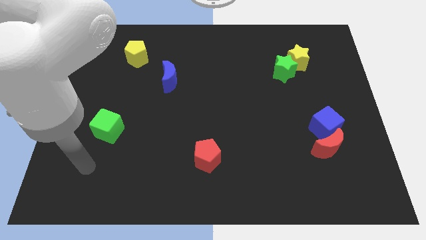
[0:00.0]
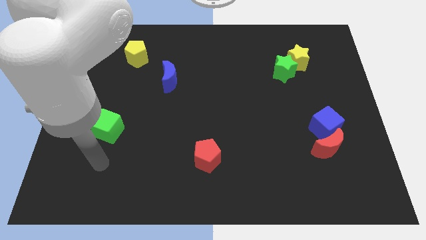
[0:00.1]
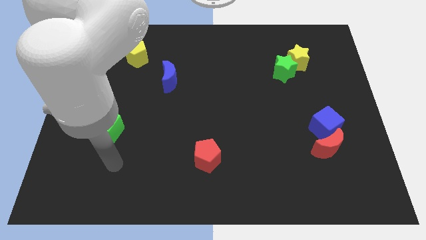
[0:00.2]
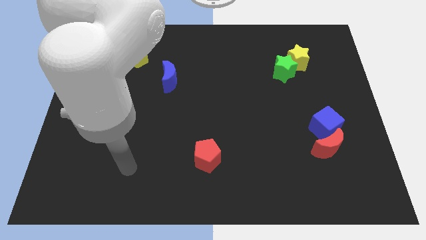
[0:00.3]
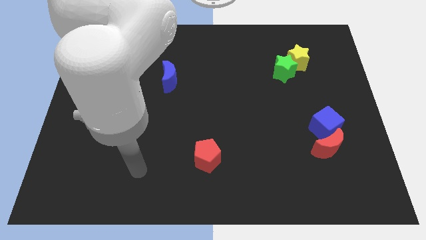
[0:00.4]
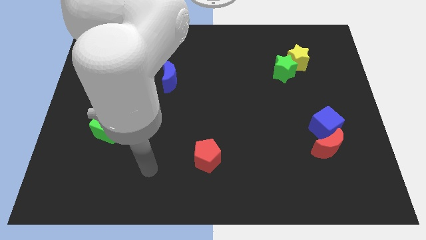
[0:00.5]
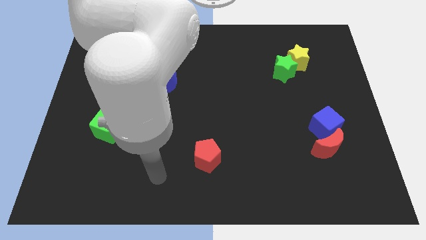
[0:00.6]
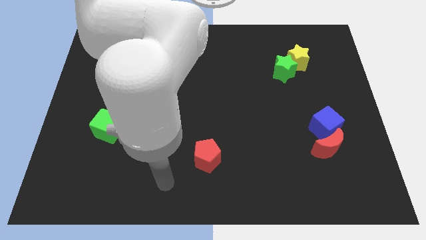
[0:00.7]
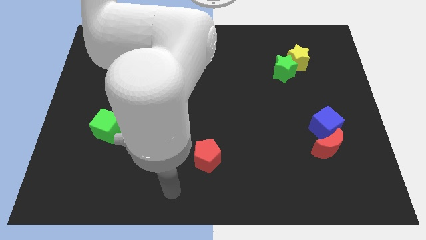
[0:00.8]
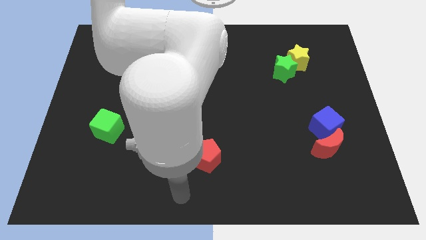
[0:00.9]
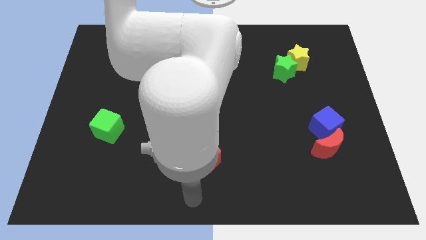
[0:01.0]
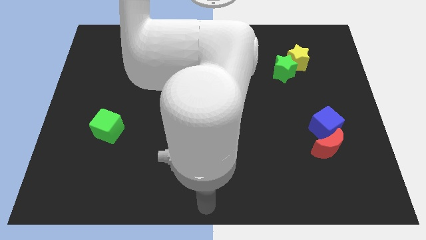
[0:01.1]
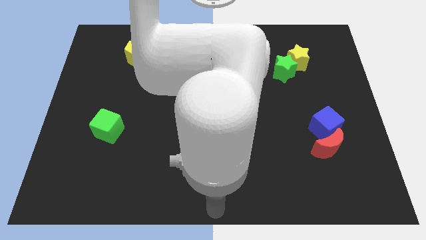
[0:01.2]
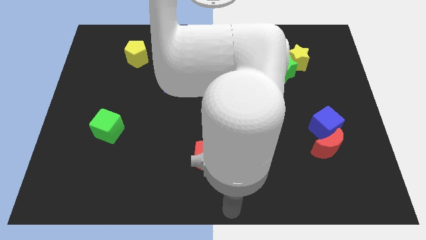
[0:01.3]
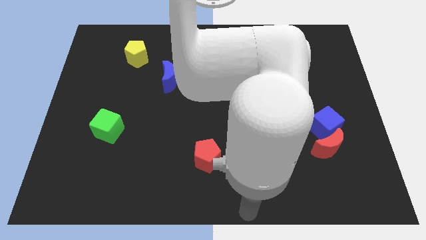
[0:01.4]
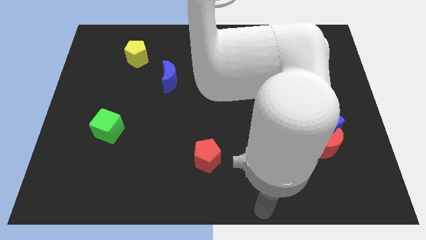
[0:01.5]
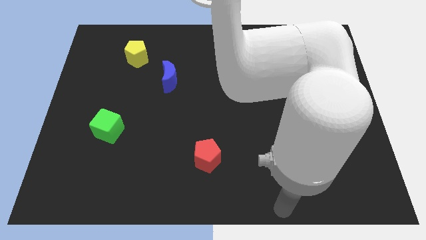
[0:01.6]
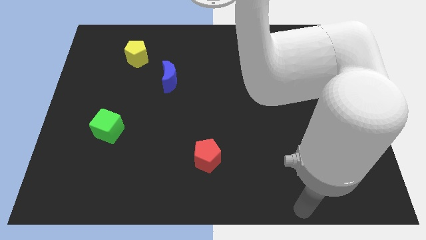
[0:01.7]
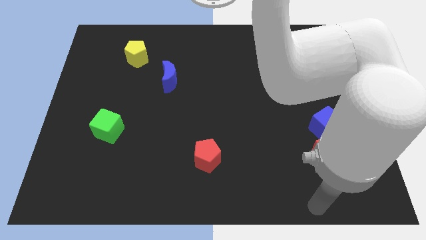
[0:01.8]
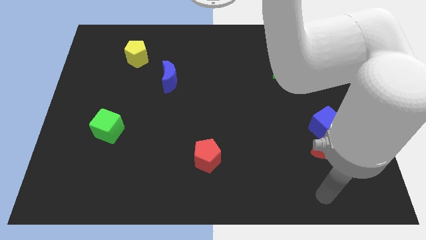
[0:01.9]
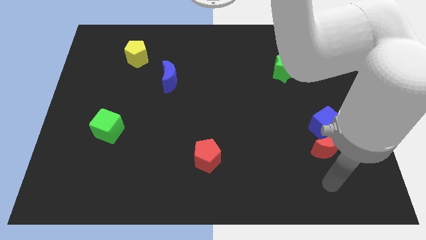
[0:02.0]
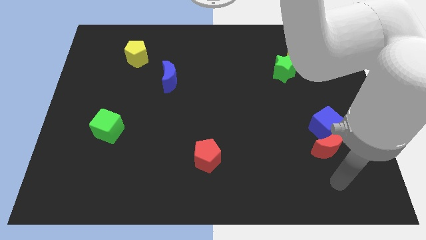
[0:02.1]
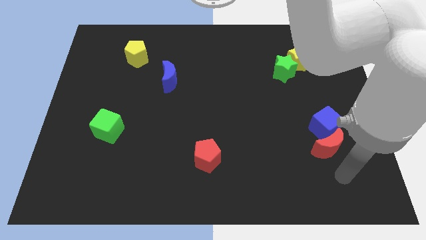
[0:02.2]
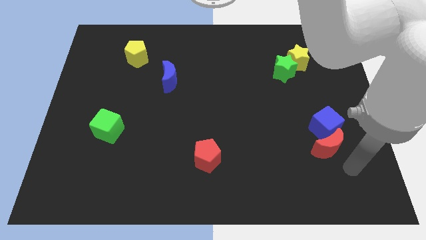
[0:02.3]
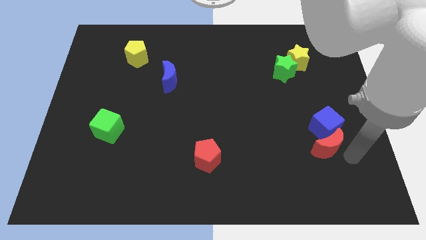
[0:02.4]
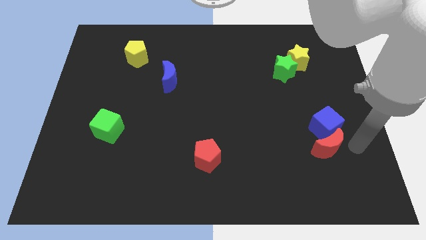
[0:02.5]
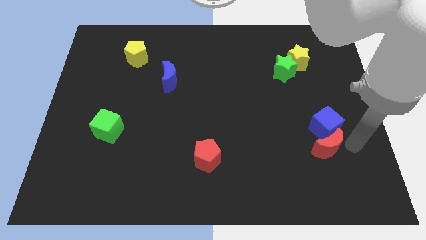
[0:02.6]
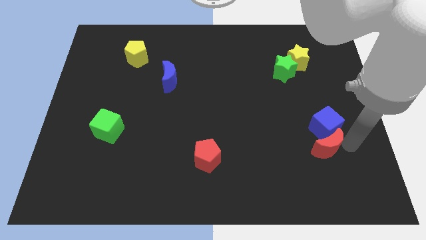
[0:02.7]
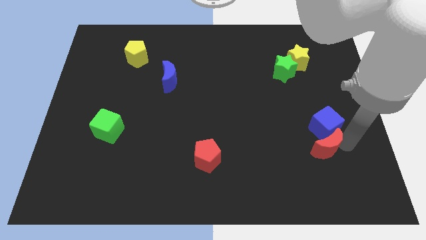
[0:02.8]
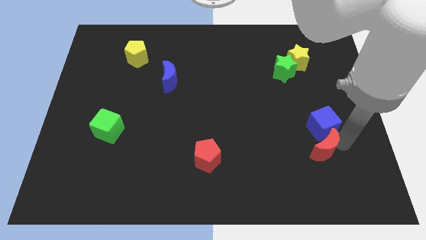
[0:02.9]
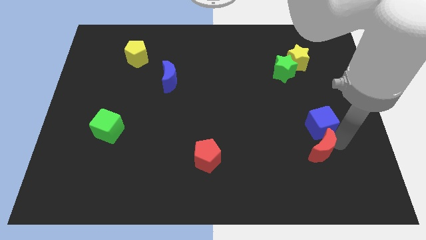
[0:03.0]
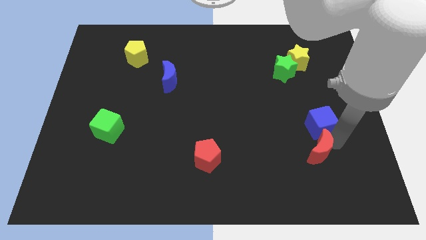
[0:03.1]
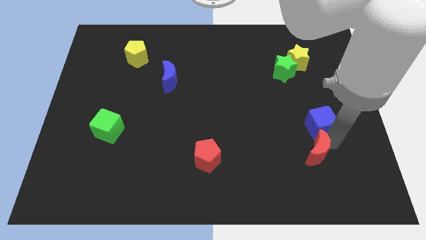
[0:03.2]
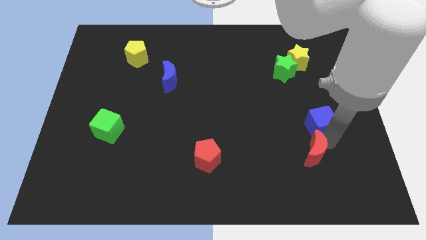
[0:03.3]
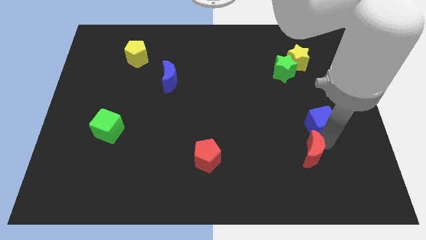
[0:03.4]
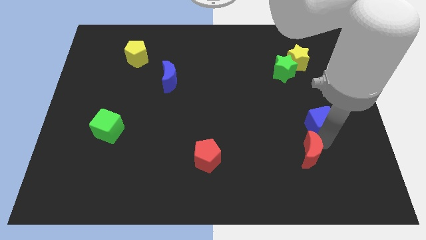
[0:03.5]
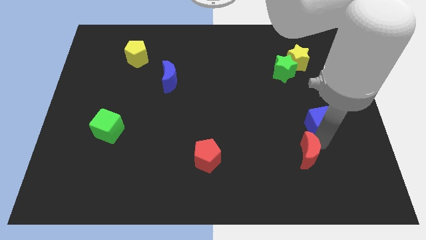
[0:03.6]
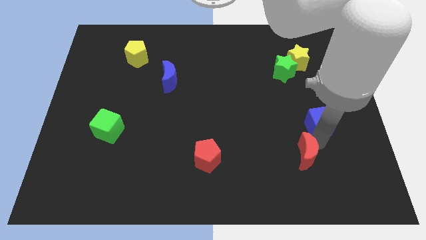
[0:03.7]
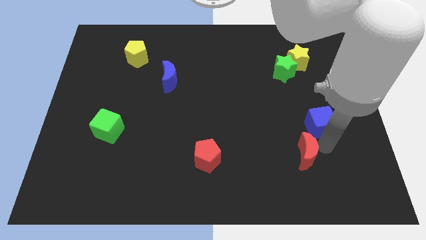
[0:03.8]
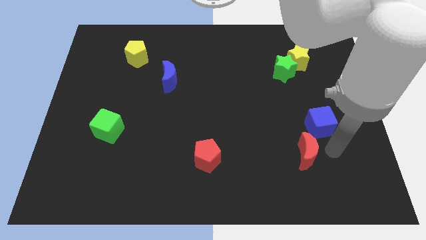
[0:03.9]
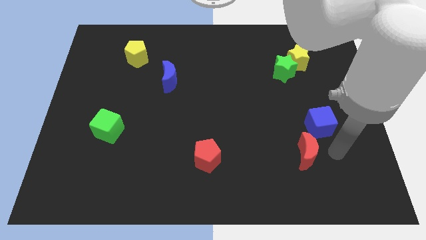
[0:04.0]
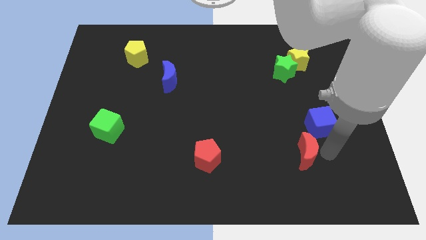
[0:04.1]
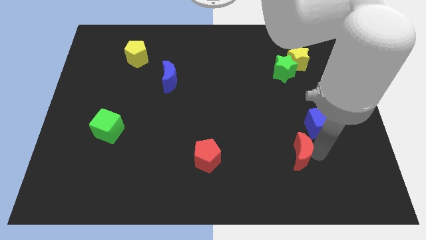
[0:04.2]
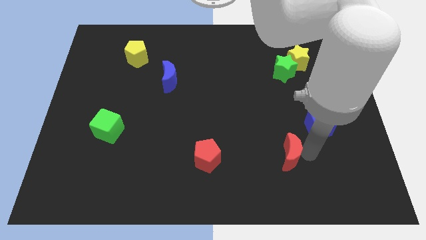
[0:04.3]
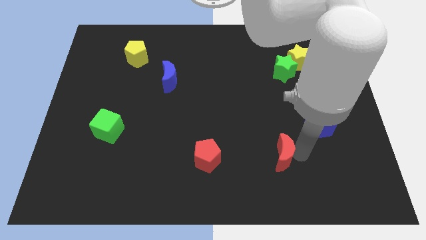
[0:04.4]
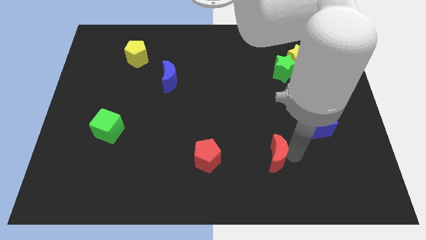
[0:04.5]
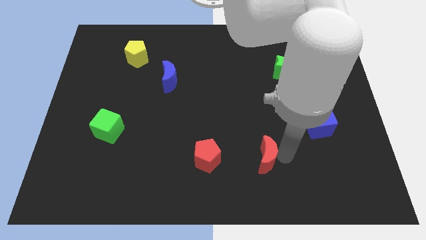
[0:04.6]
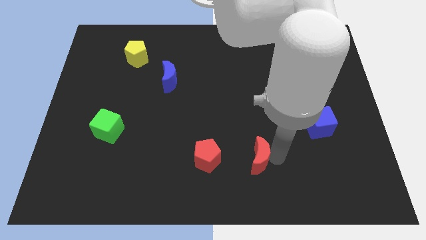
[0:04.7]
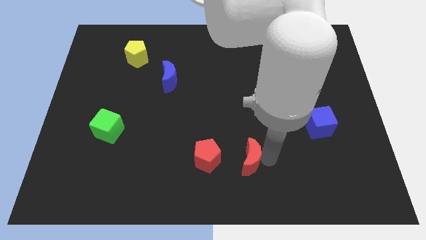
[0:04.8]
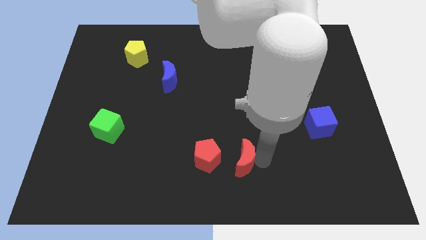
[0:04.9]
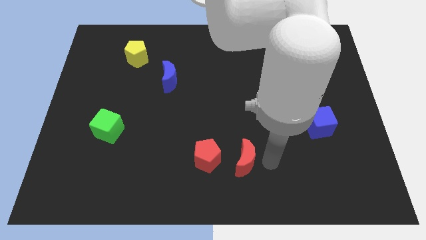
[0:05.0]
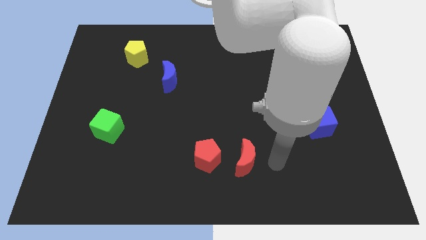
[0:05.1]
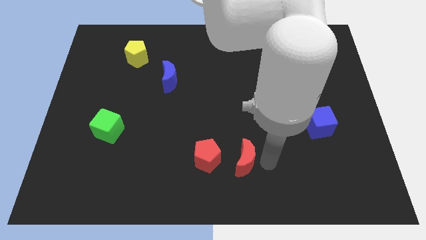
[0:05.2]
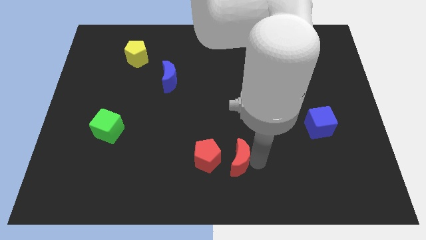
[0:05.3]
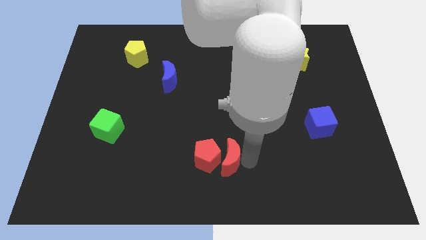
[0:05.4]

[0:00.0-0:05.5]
move the red moon to the red pentagon
